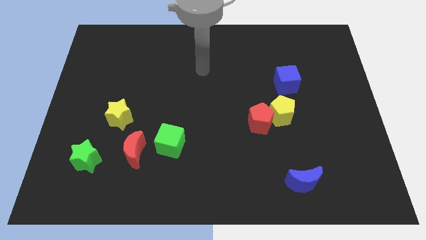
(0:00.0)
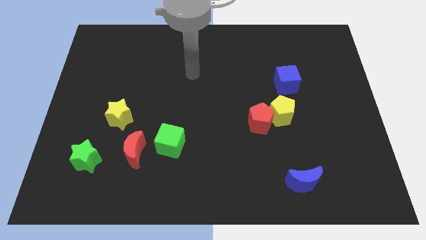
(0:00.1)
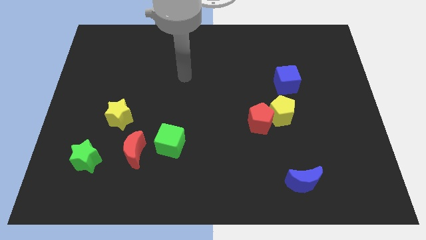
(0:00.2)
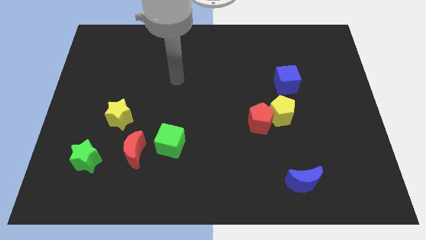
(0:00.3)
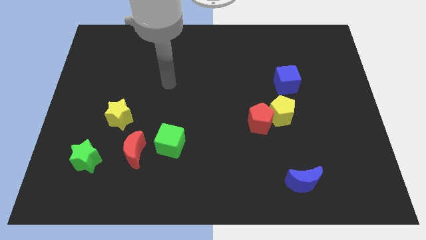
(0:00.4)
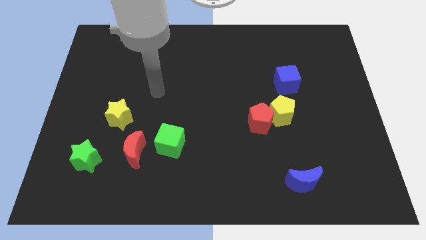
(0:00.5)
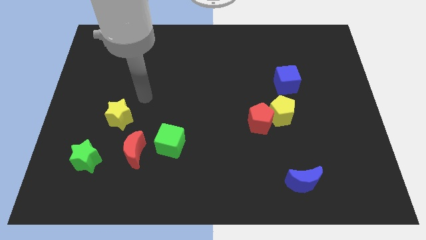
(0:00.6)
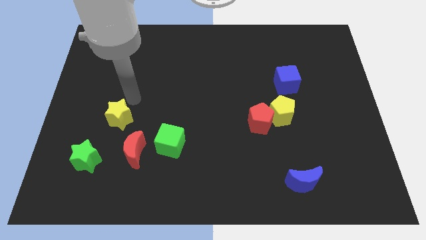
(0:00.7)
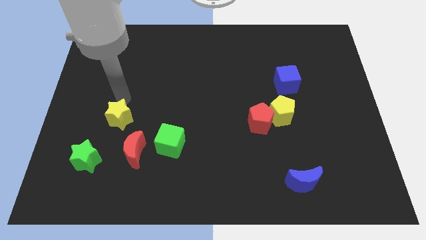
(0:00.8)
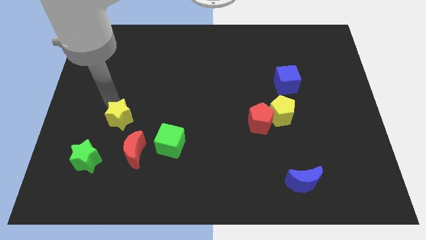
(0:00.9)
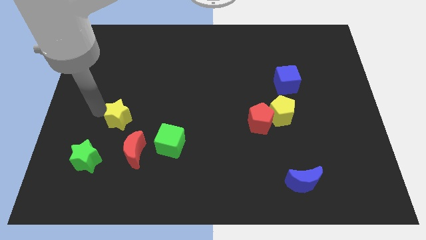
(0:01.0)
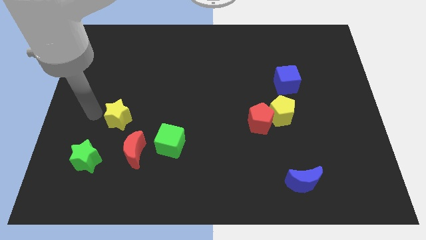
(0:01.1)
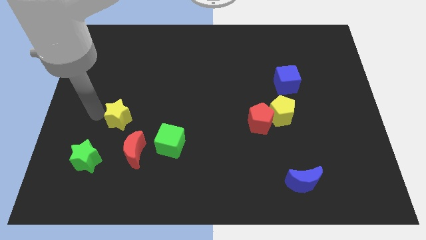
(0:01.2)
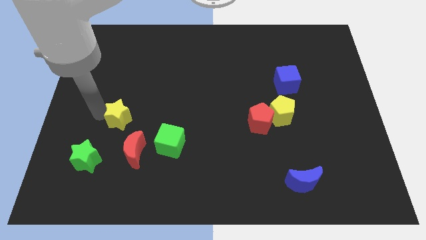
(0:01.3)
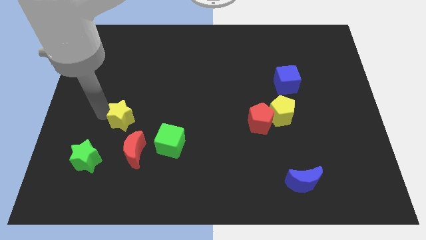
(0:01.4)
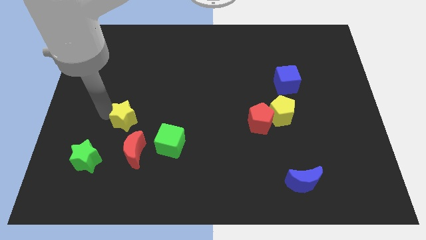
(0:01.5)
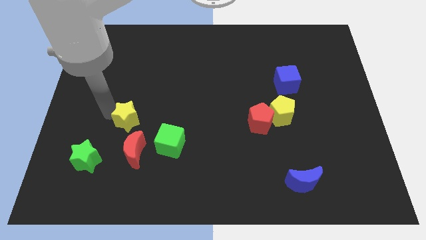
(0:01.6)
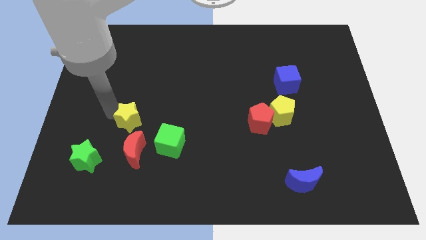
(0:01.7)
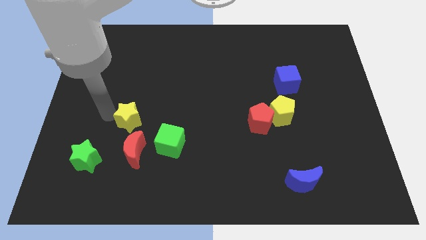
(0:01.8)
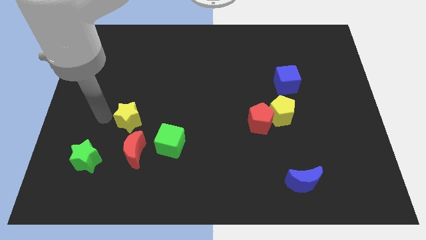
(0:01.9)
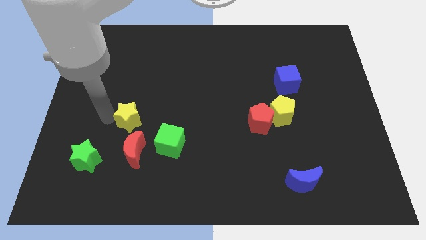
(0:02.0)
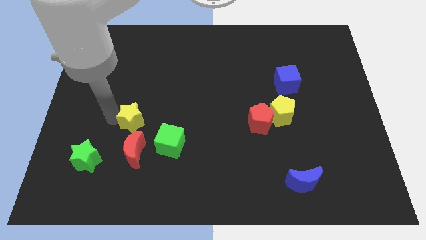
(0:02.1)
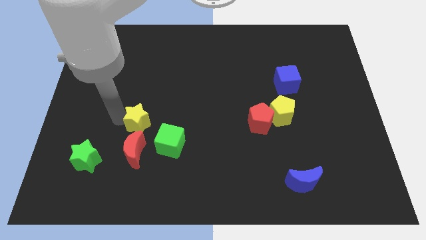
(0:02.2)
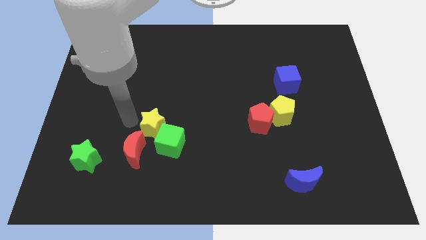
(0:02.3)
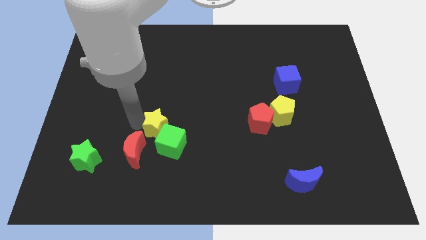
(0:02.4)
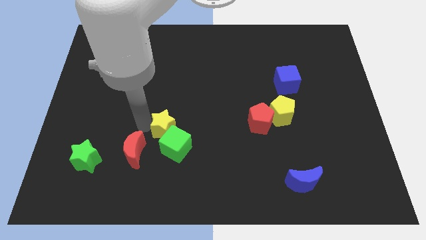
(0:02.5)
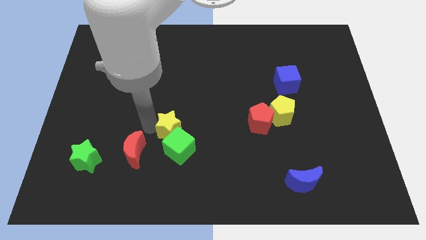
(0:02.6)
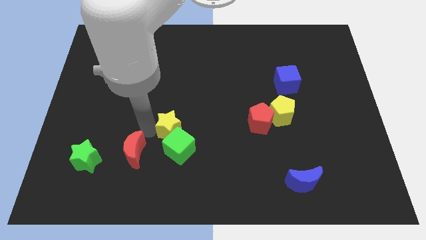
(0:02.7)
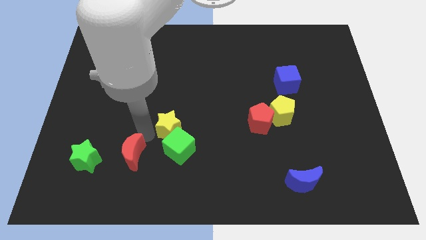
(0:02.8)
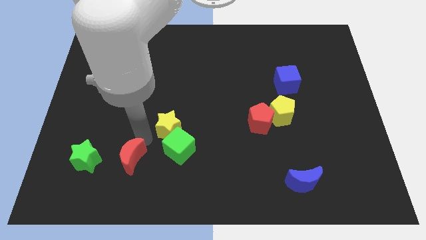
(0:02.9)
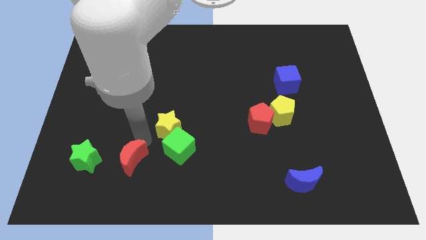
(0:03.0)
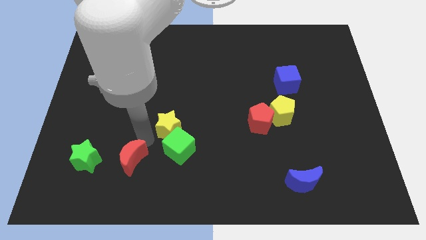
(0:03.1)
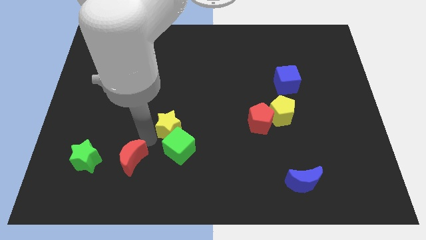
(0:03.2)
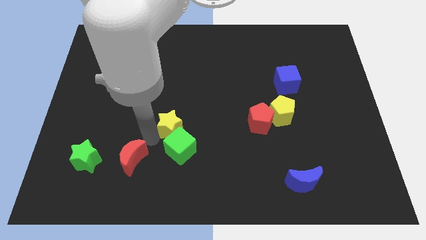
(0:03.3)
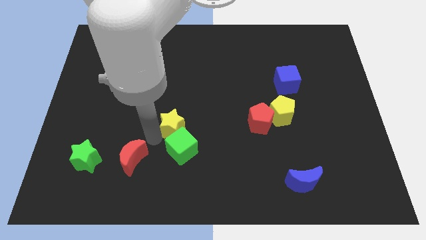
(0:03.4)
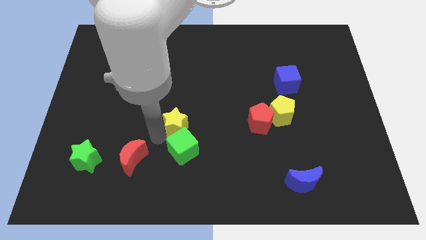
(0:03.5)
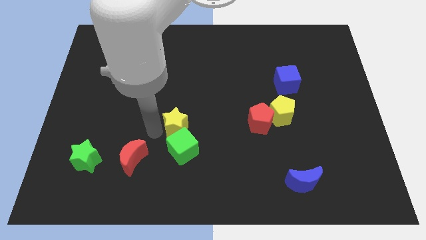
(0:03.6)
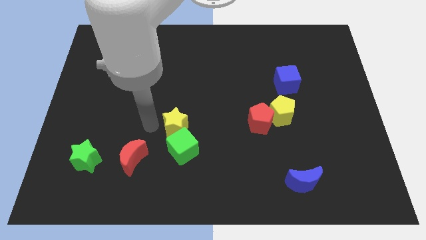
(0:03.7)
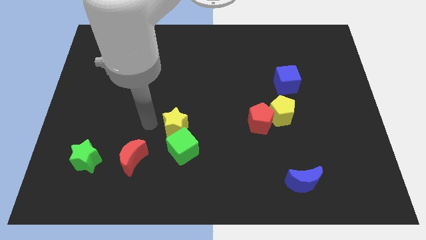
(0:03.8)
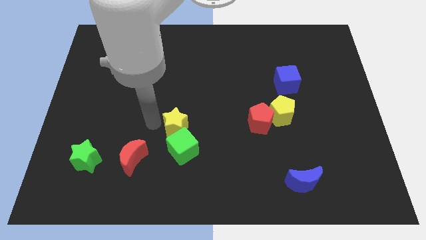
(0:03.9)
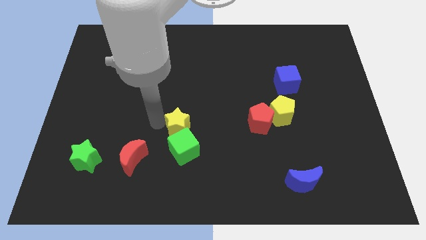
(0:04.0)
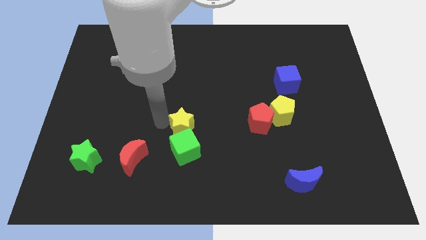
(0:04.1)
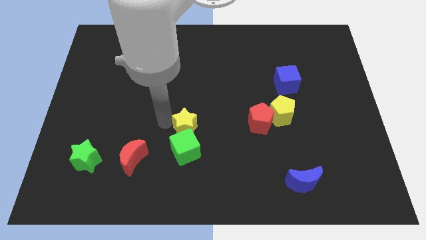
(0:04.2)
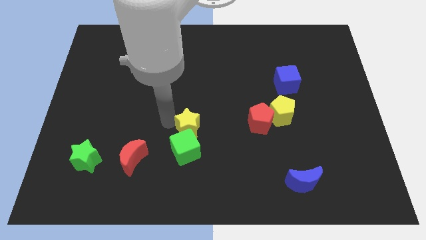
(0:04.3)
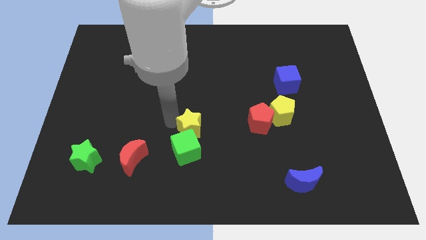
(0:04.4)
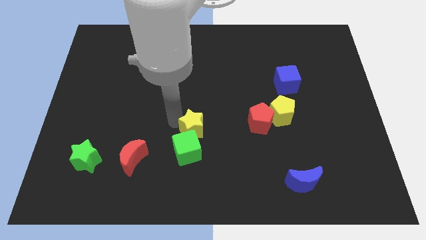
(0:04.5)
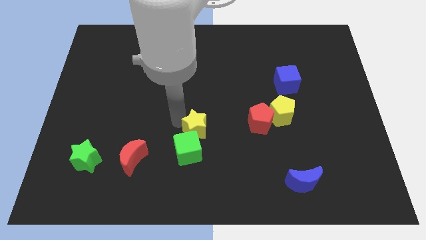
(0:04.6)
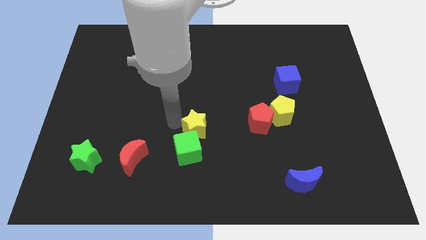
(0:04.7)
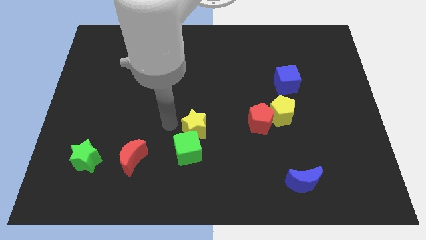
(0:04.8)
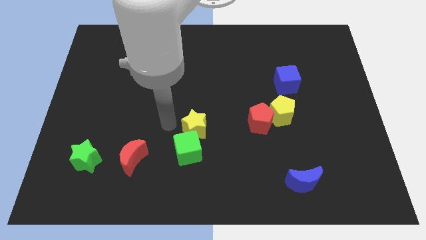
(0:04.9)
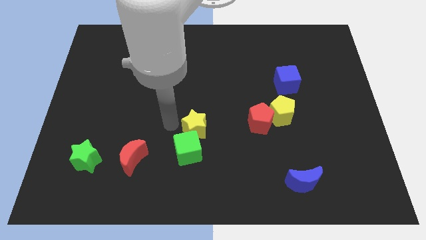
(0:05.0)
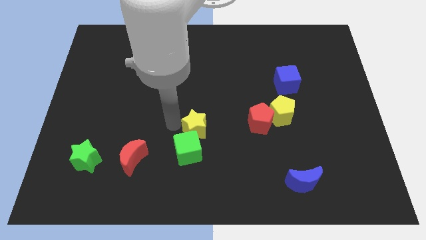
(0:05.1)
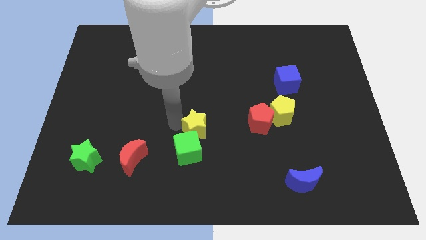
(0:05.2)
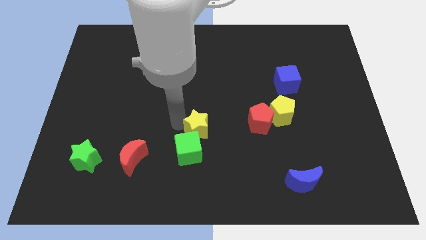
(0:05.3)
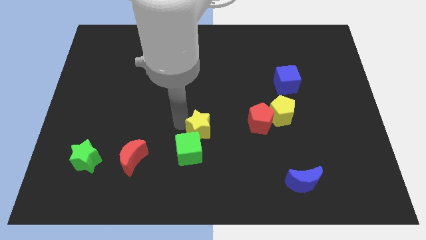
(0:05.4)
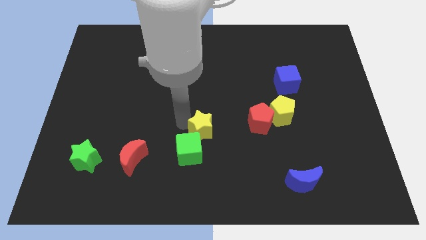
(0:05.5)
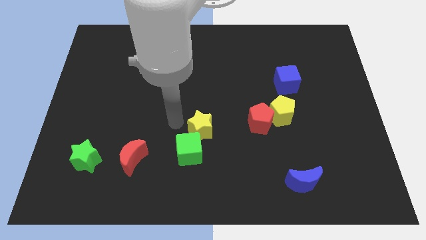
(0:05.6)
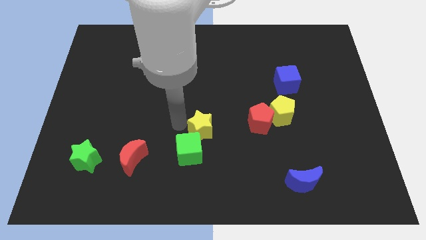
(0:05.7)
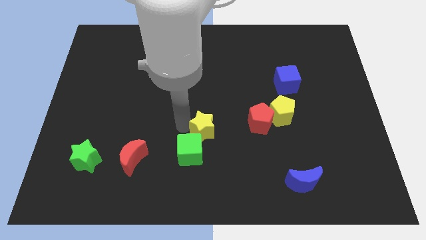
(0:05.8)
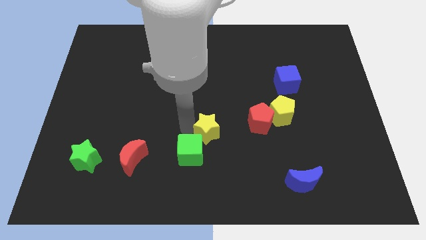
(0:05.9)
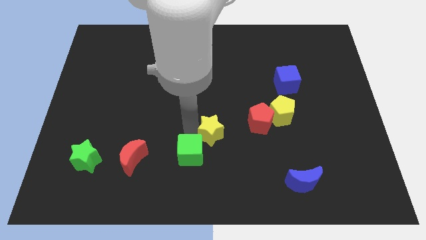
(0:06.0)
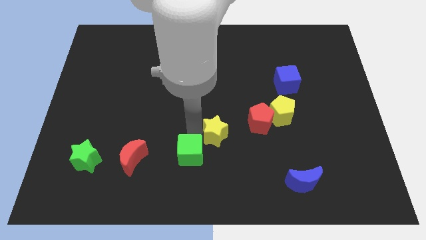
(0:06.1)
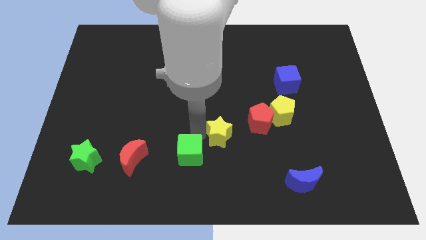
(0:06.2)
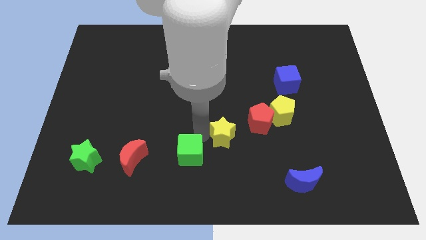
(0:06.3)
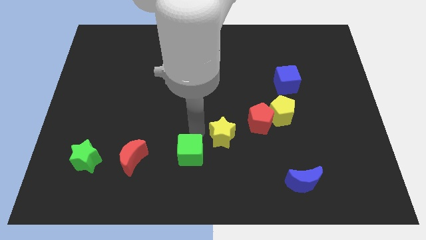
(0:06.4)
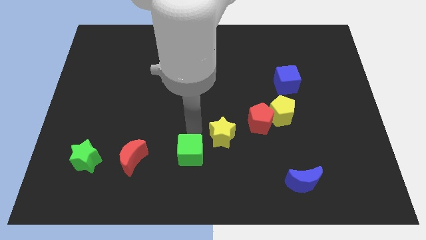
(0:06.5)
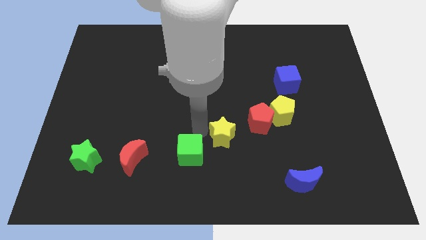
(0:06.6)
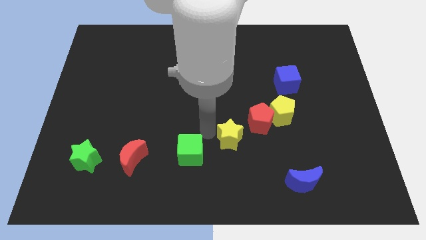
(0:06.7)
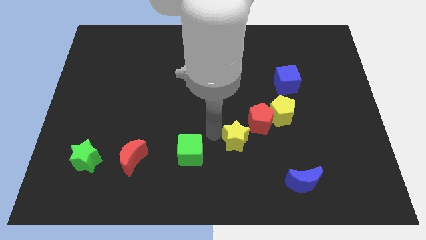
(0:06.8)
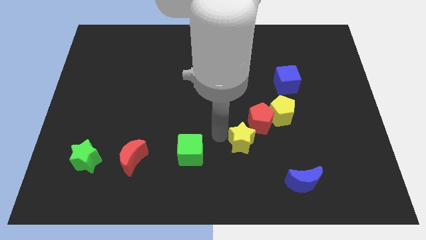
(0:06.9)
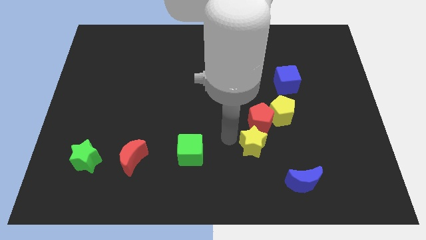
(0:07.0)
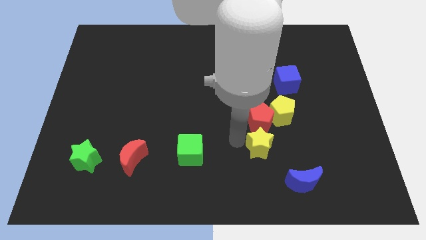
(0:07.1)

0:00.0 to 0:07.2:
slide the yellow star to the bottom right side of the red pentagon
